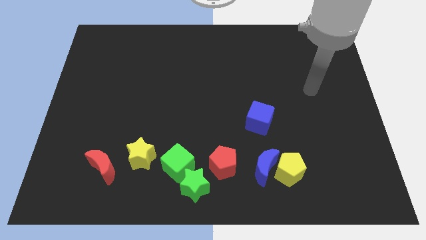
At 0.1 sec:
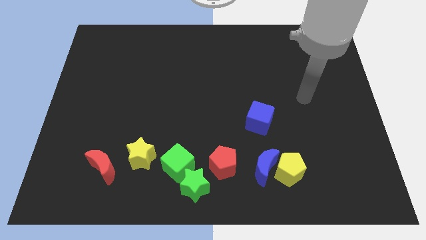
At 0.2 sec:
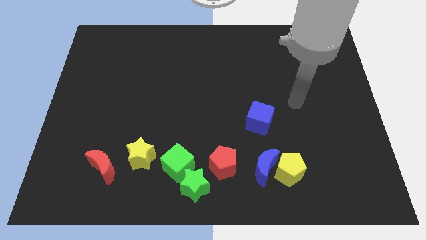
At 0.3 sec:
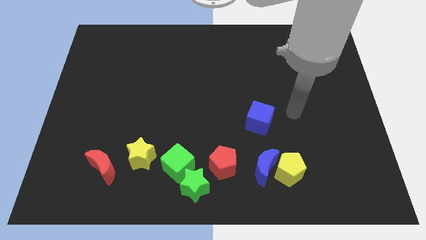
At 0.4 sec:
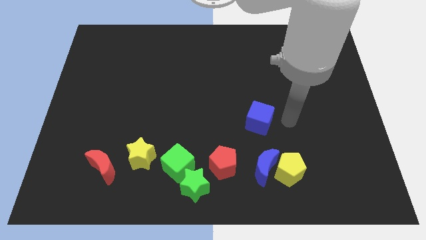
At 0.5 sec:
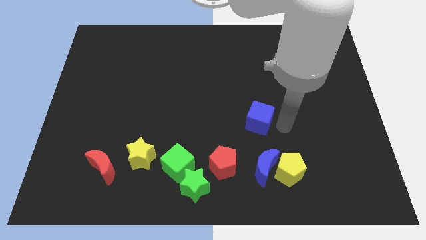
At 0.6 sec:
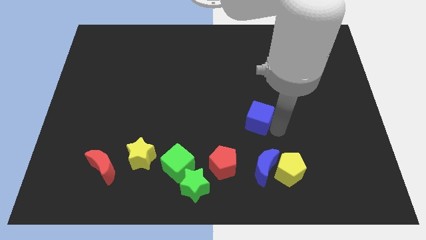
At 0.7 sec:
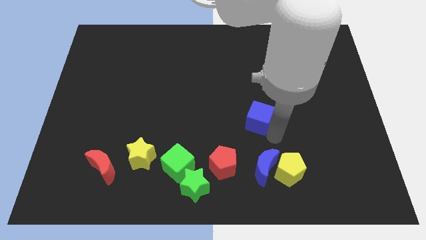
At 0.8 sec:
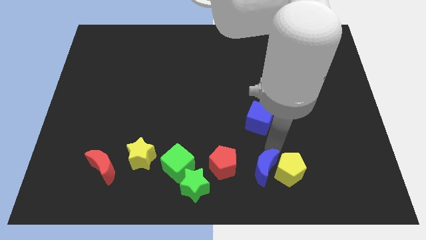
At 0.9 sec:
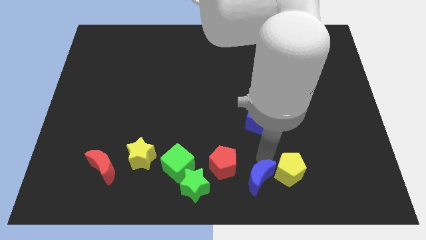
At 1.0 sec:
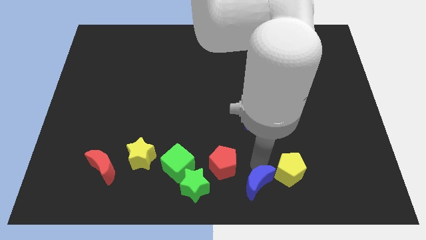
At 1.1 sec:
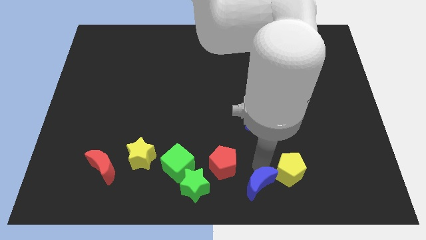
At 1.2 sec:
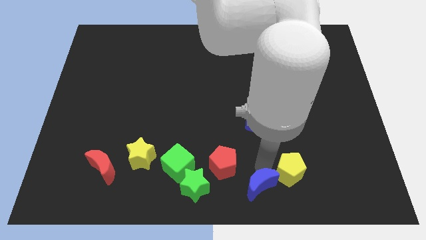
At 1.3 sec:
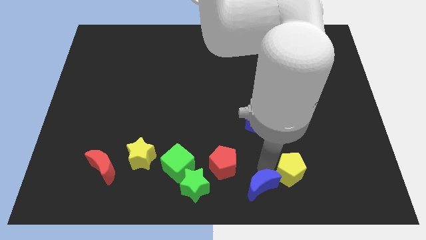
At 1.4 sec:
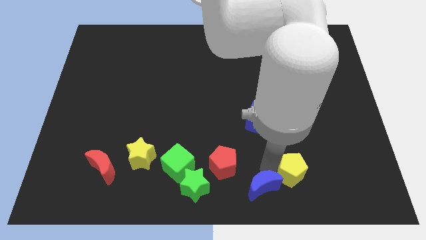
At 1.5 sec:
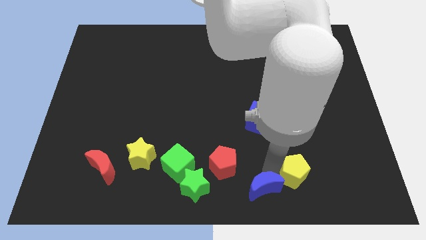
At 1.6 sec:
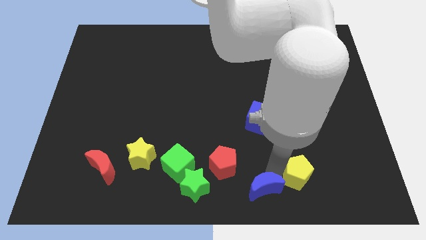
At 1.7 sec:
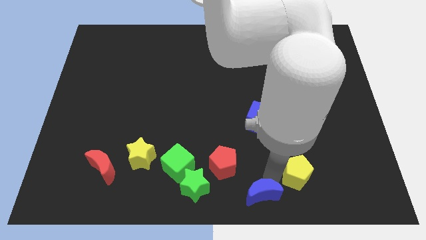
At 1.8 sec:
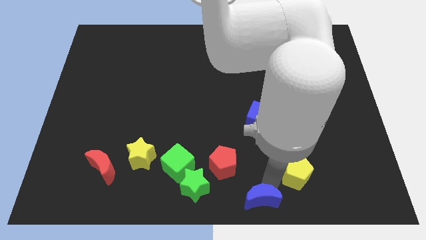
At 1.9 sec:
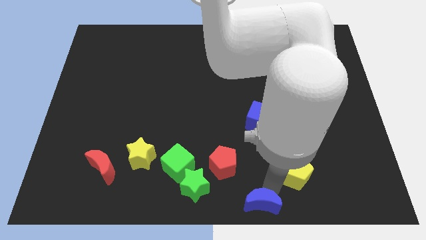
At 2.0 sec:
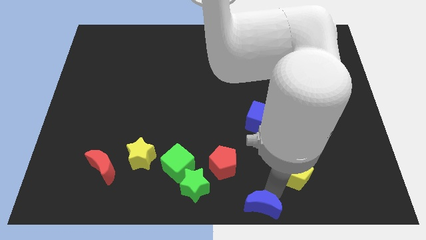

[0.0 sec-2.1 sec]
pull the yellow pentagon apart from the blue moon

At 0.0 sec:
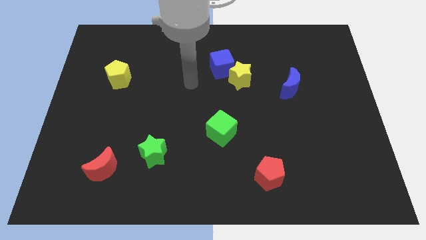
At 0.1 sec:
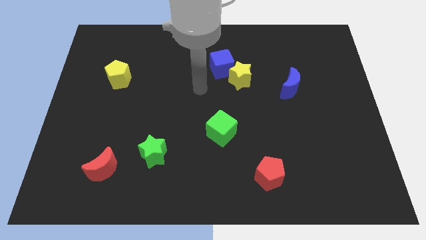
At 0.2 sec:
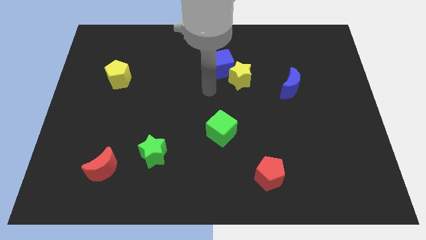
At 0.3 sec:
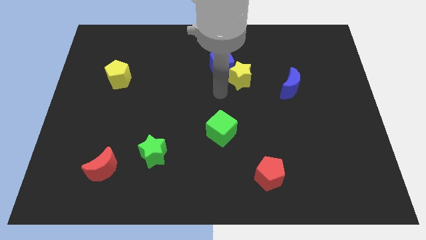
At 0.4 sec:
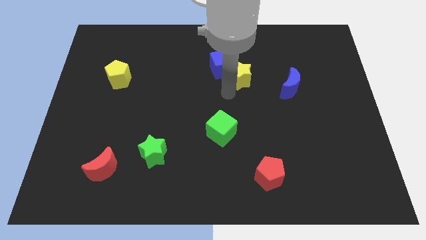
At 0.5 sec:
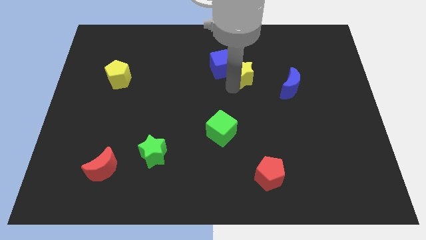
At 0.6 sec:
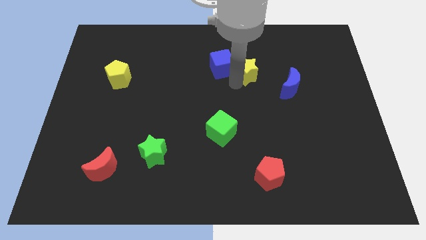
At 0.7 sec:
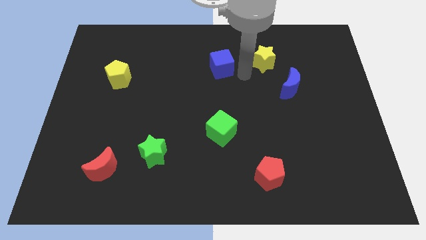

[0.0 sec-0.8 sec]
separate the blue cube from the yellow star

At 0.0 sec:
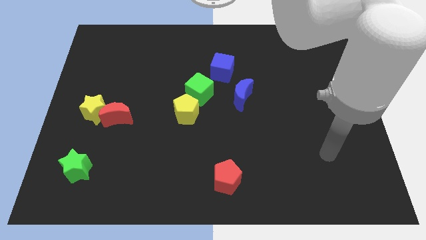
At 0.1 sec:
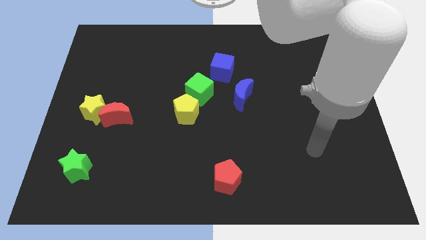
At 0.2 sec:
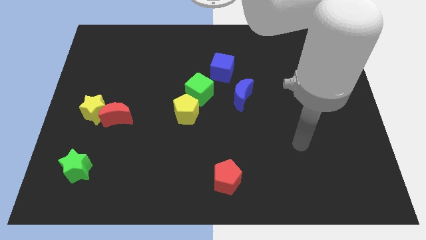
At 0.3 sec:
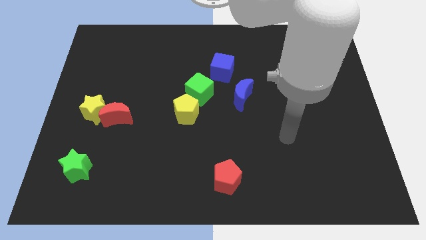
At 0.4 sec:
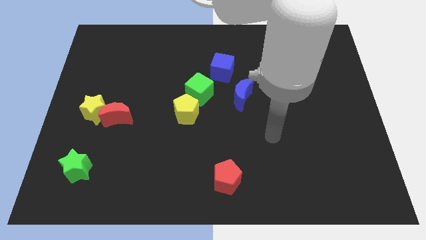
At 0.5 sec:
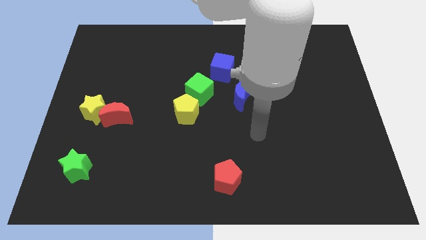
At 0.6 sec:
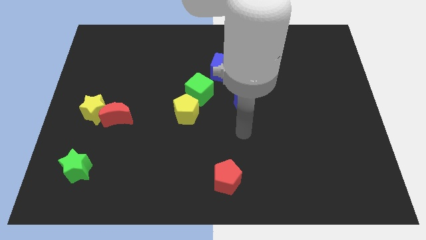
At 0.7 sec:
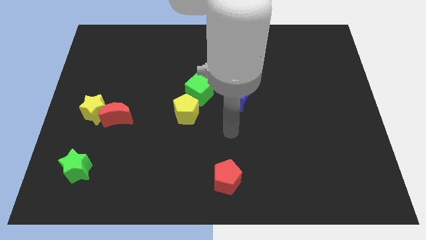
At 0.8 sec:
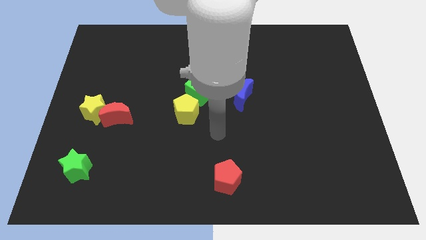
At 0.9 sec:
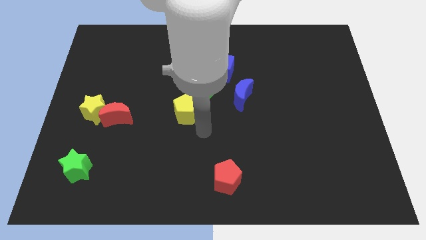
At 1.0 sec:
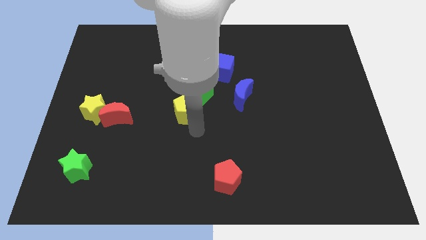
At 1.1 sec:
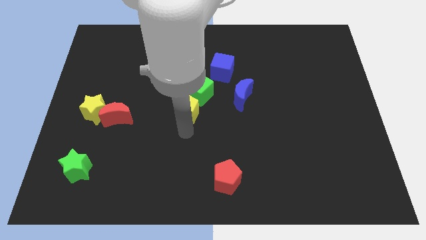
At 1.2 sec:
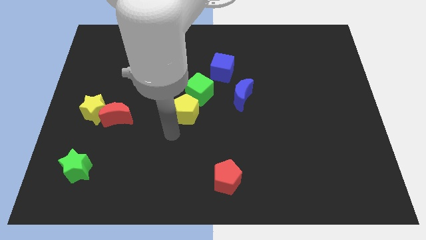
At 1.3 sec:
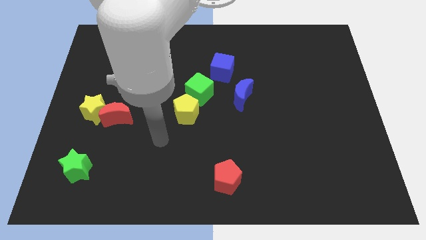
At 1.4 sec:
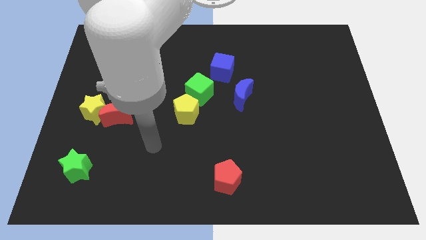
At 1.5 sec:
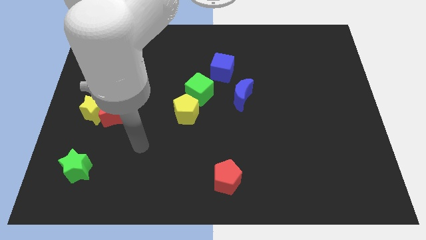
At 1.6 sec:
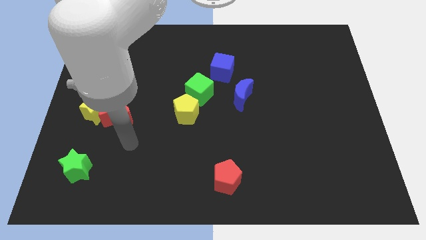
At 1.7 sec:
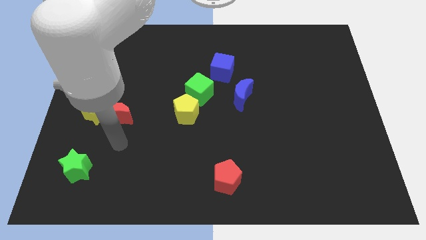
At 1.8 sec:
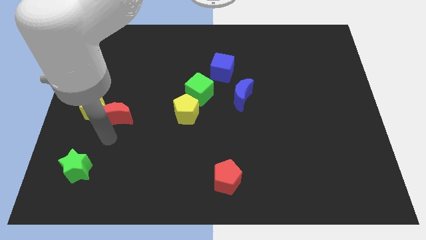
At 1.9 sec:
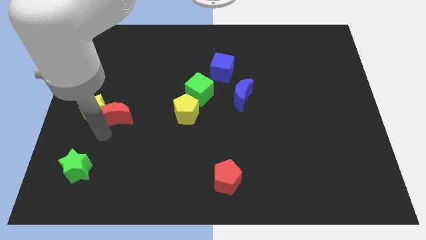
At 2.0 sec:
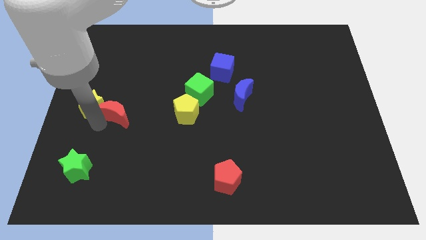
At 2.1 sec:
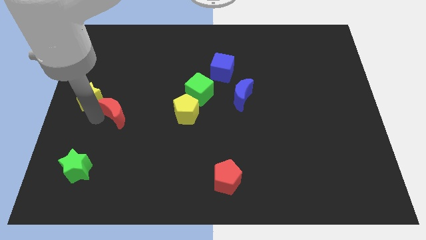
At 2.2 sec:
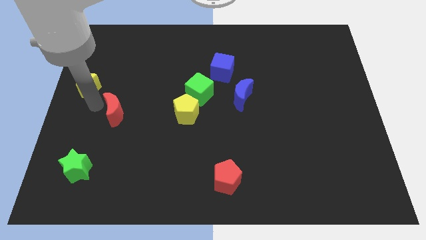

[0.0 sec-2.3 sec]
pull the red moon apart from the yellow star

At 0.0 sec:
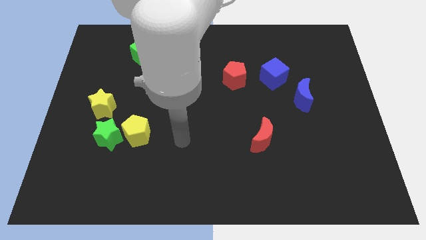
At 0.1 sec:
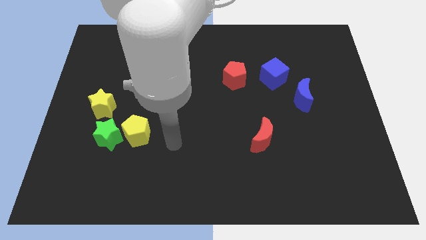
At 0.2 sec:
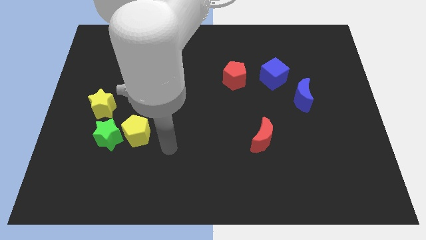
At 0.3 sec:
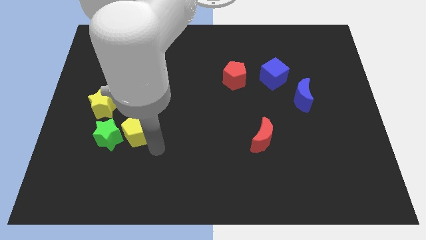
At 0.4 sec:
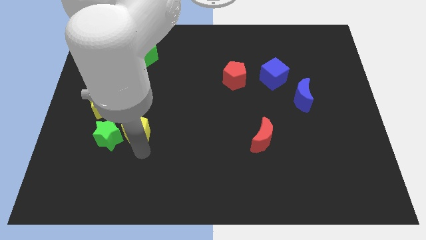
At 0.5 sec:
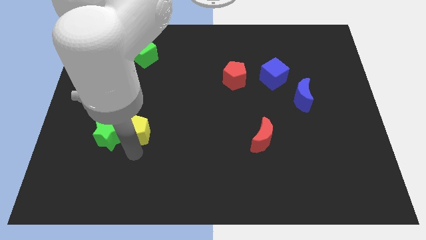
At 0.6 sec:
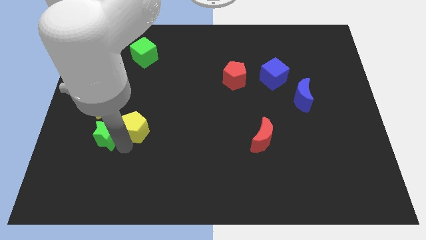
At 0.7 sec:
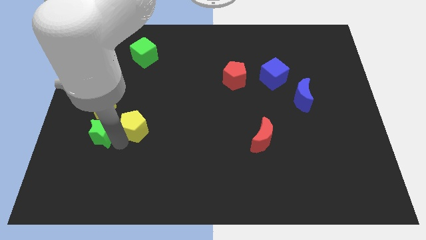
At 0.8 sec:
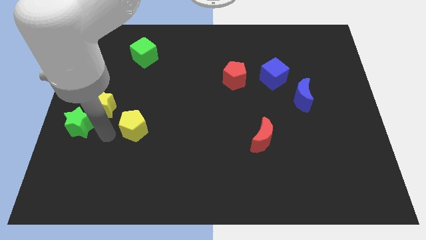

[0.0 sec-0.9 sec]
pull the yellow pentagon apart from the green star

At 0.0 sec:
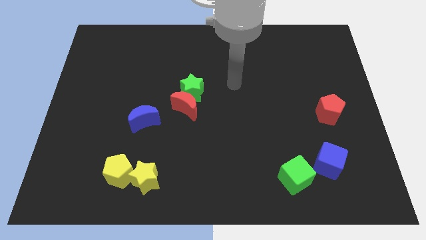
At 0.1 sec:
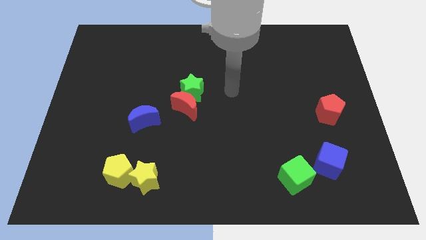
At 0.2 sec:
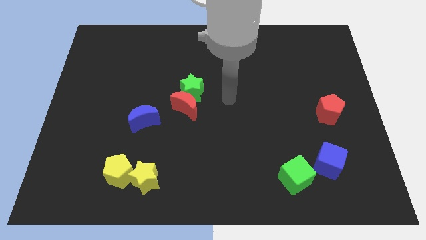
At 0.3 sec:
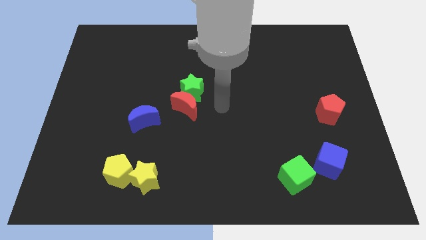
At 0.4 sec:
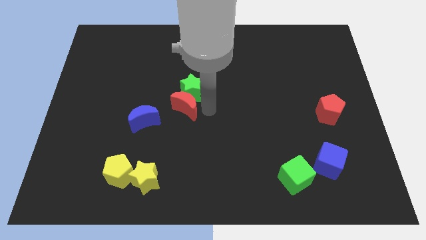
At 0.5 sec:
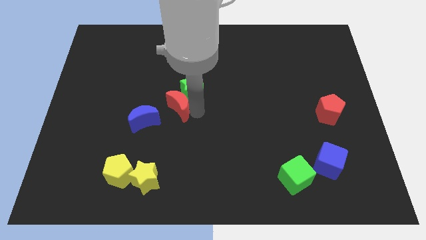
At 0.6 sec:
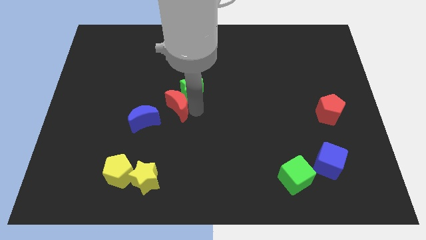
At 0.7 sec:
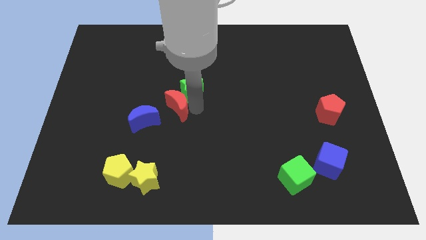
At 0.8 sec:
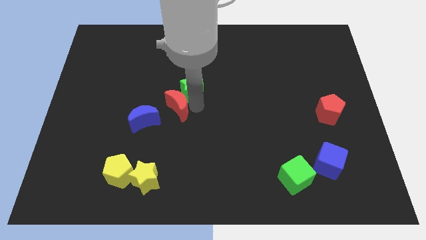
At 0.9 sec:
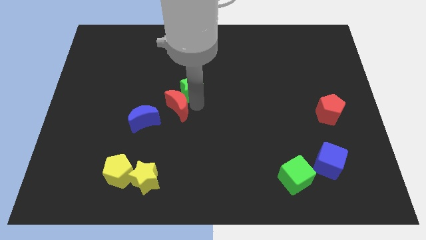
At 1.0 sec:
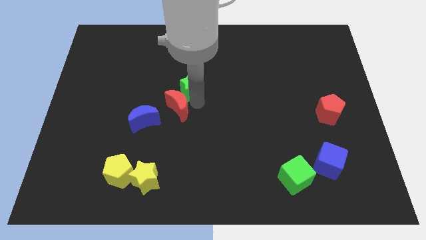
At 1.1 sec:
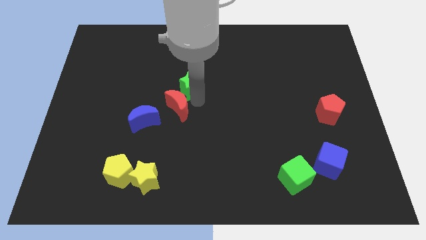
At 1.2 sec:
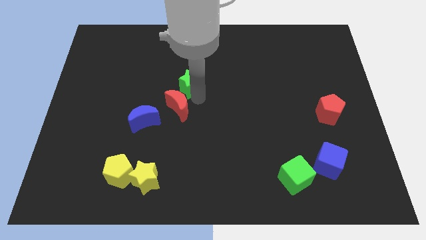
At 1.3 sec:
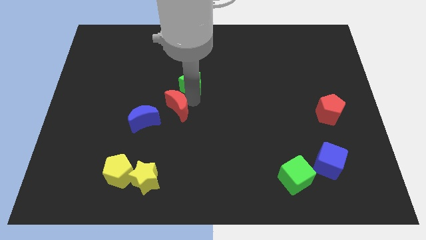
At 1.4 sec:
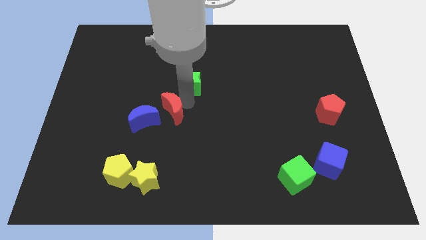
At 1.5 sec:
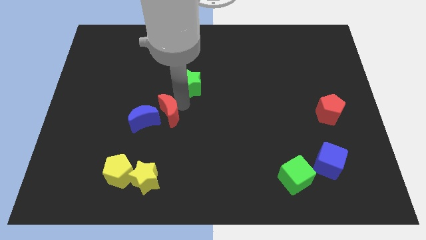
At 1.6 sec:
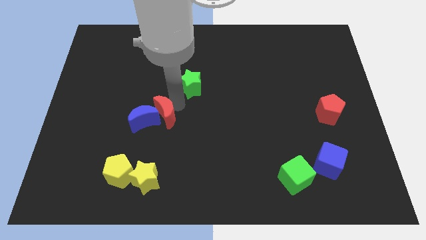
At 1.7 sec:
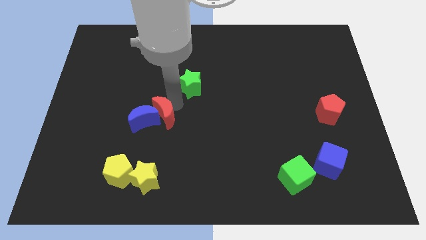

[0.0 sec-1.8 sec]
separate the green star from the red moon

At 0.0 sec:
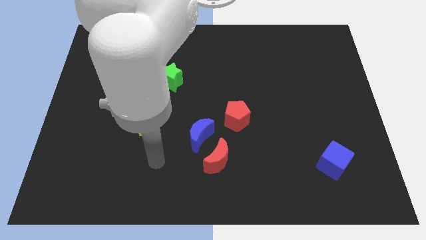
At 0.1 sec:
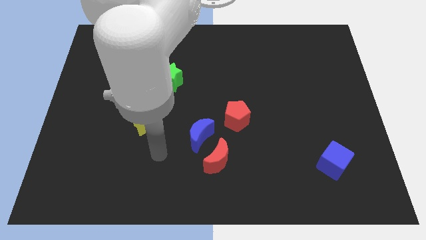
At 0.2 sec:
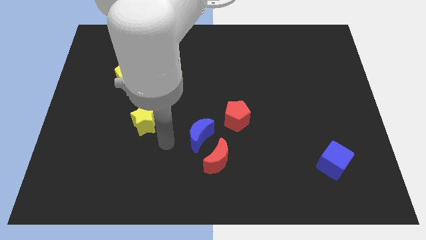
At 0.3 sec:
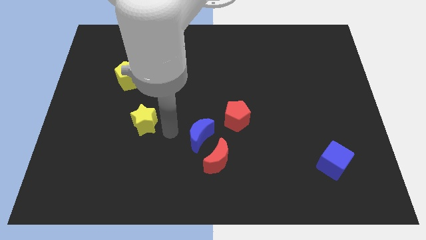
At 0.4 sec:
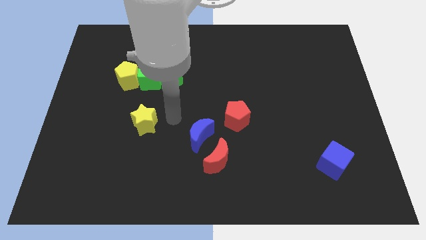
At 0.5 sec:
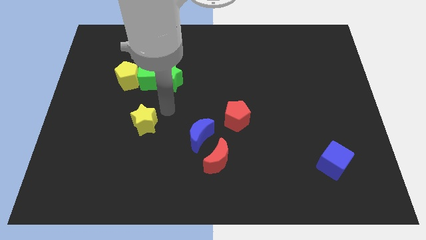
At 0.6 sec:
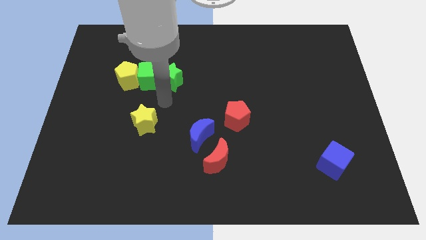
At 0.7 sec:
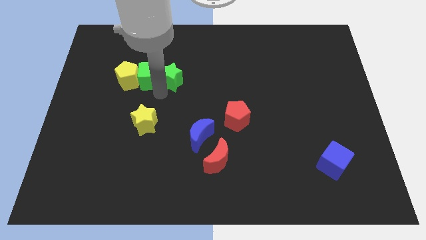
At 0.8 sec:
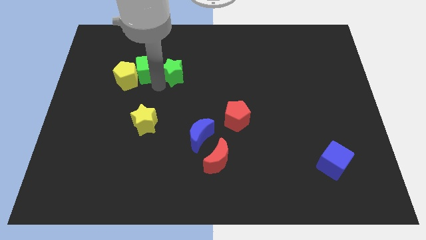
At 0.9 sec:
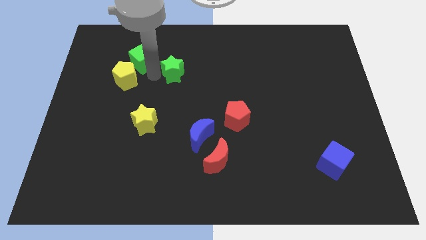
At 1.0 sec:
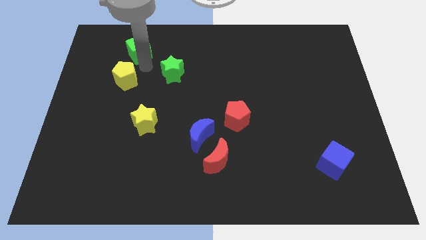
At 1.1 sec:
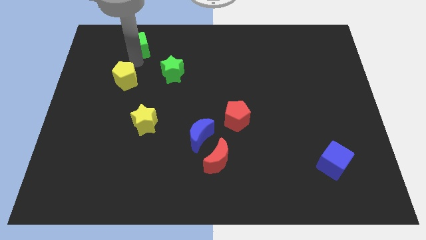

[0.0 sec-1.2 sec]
move the yellow pentagon away from the green cube

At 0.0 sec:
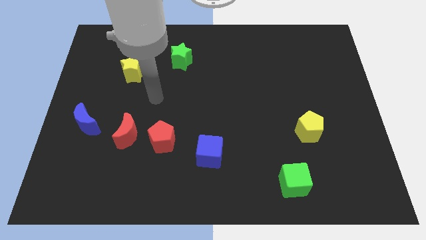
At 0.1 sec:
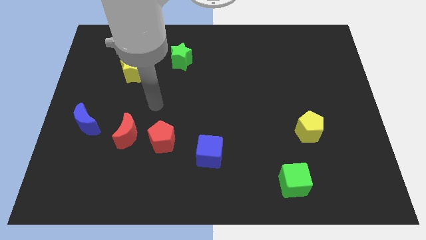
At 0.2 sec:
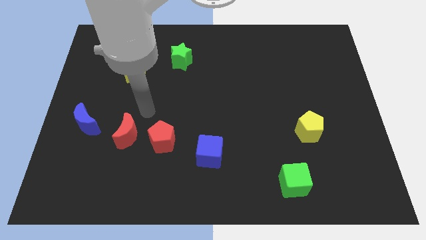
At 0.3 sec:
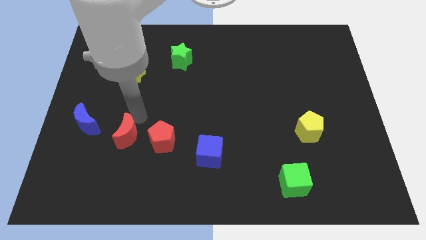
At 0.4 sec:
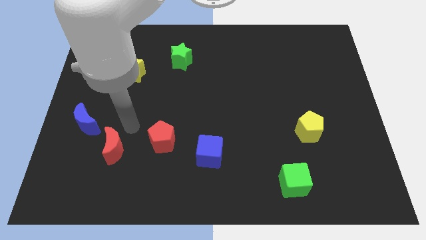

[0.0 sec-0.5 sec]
separate the red pentagon from the red moon
